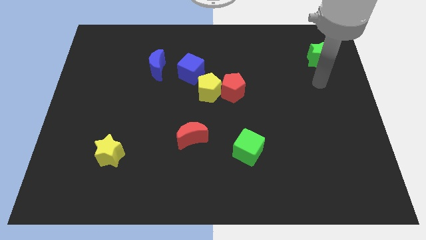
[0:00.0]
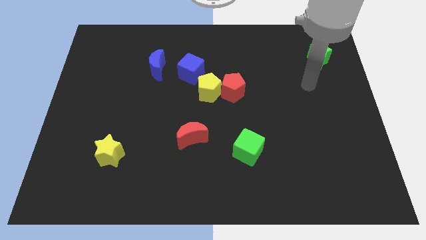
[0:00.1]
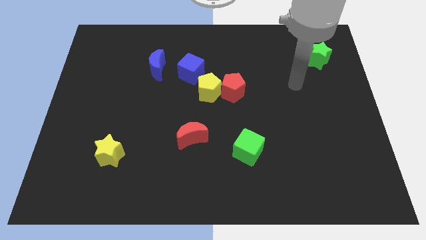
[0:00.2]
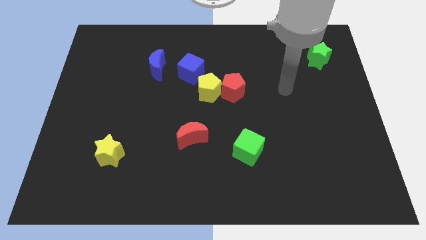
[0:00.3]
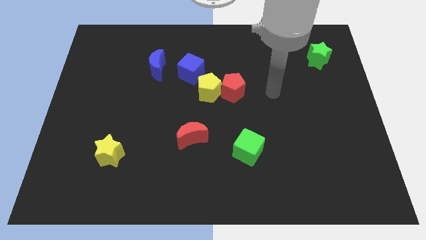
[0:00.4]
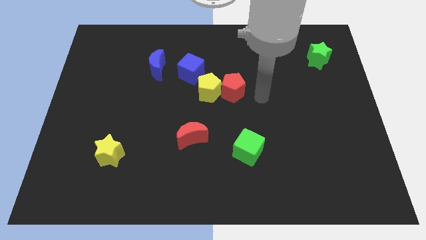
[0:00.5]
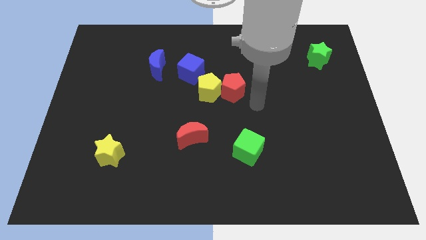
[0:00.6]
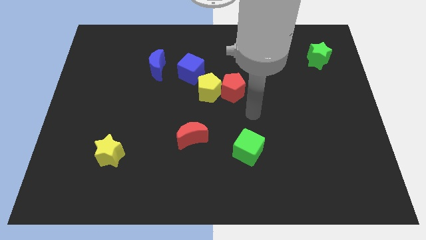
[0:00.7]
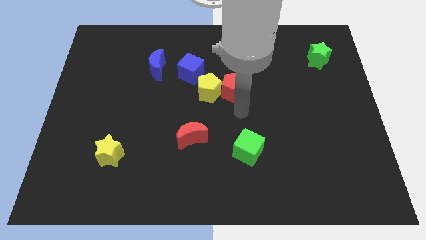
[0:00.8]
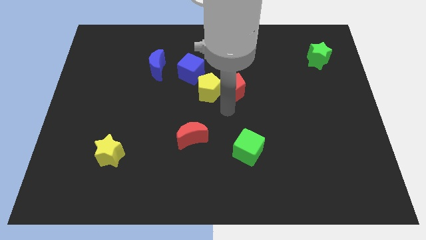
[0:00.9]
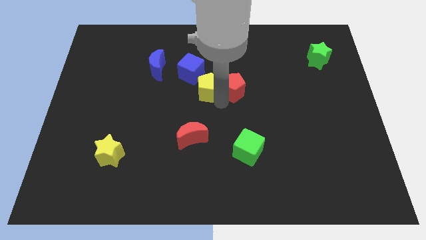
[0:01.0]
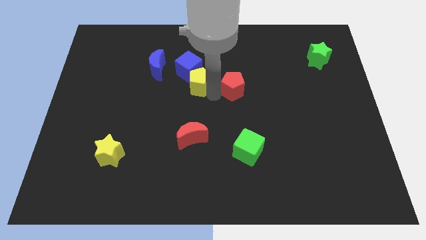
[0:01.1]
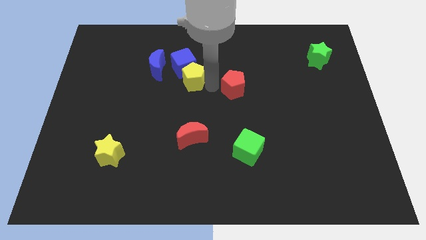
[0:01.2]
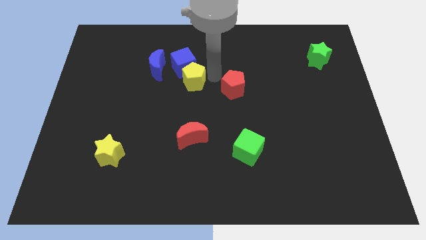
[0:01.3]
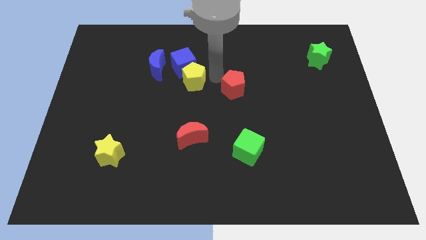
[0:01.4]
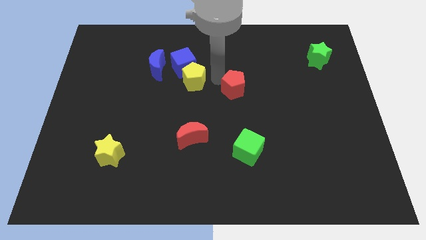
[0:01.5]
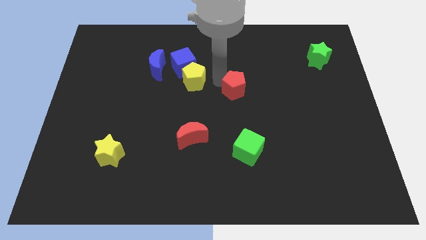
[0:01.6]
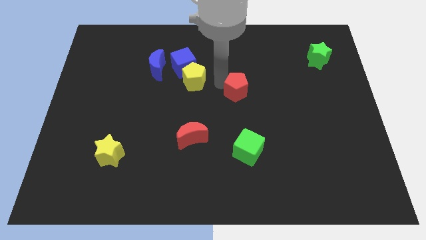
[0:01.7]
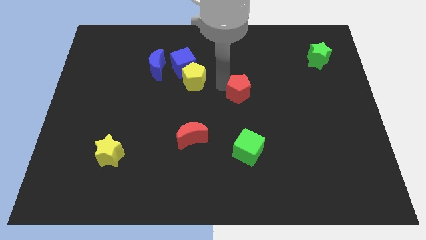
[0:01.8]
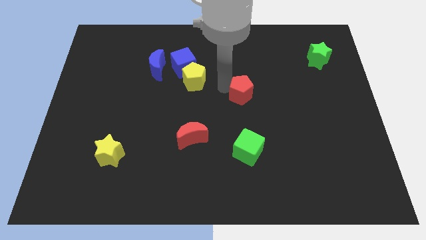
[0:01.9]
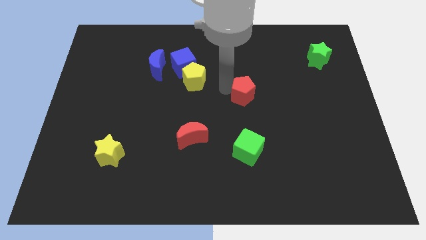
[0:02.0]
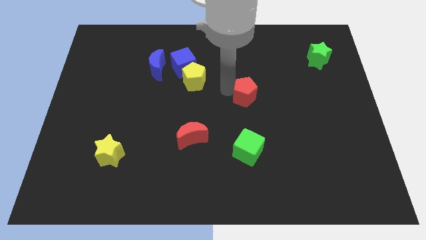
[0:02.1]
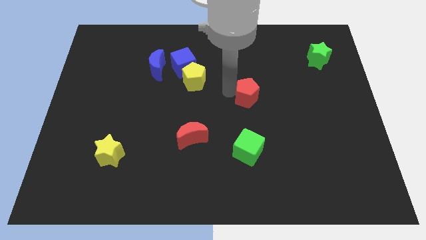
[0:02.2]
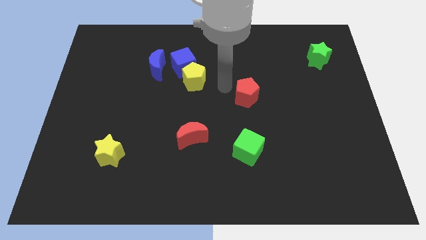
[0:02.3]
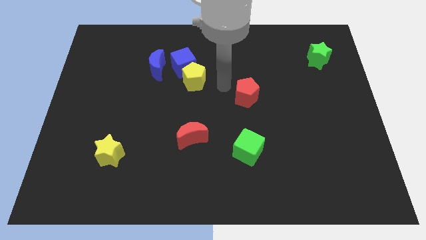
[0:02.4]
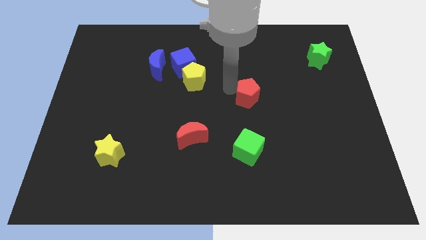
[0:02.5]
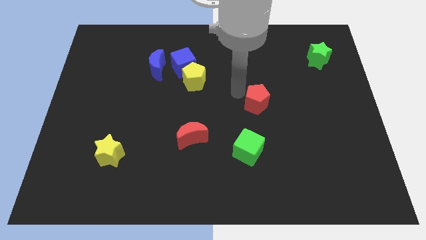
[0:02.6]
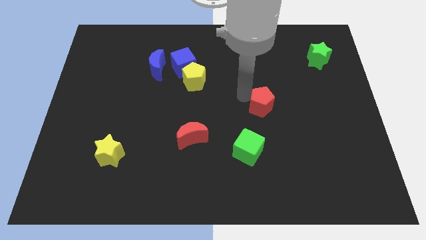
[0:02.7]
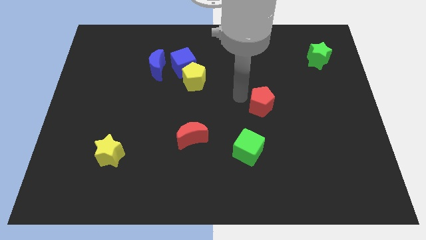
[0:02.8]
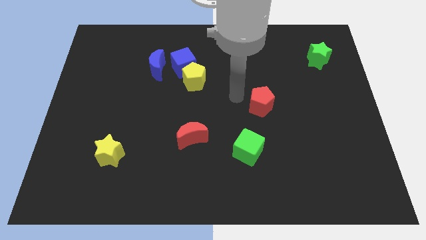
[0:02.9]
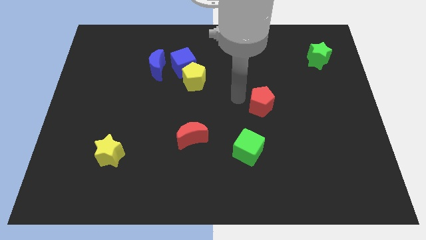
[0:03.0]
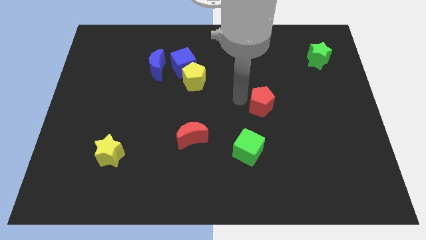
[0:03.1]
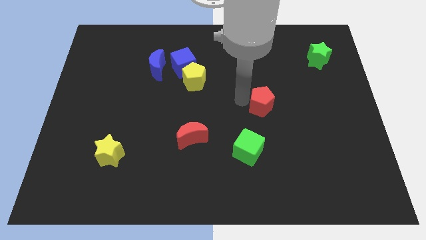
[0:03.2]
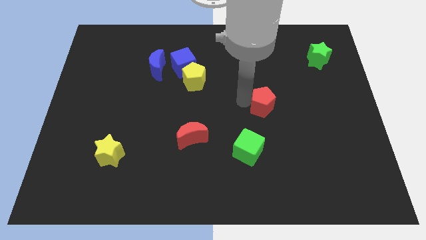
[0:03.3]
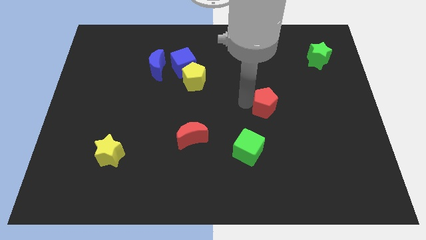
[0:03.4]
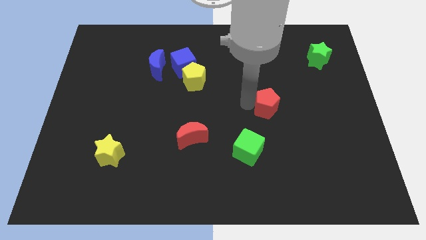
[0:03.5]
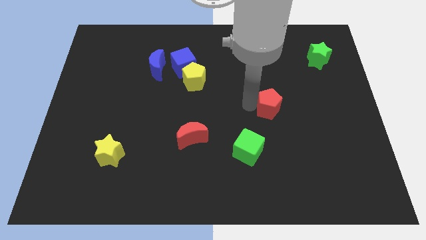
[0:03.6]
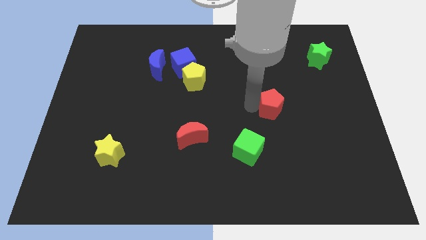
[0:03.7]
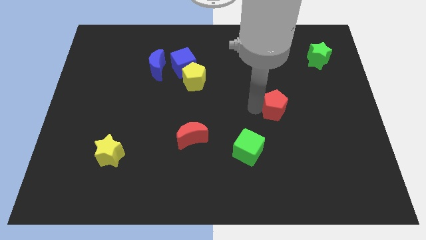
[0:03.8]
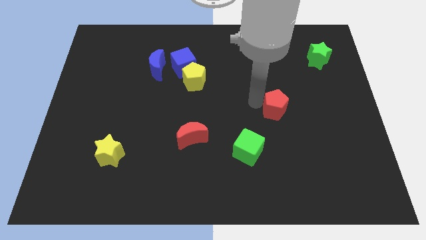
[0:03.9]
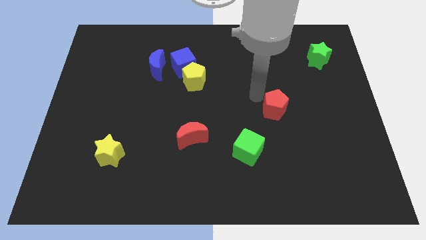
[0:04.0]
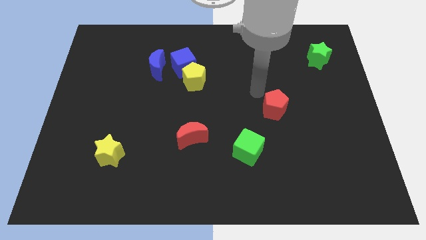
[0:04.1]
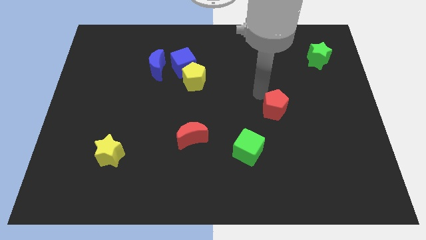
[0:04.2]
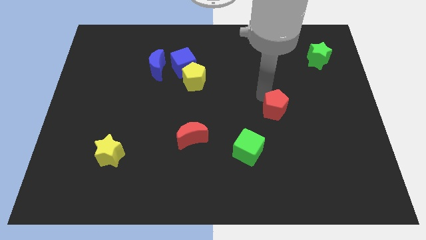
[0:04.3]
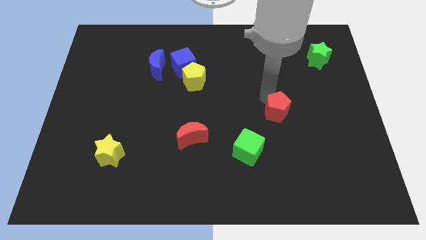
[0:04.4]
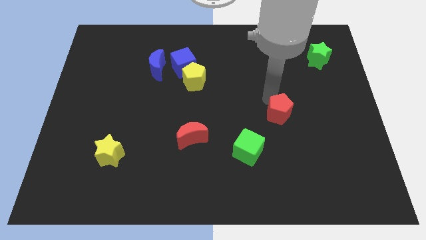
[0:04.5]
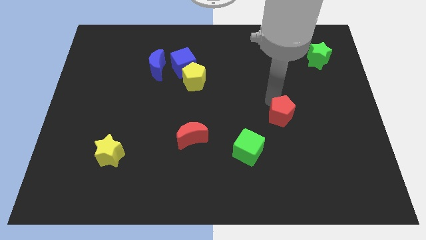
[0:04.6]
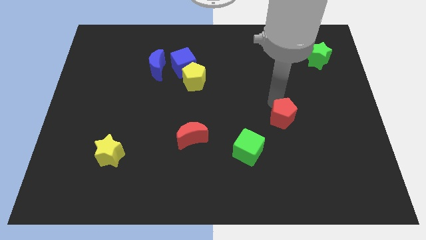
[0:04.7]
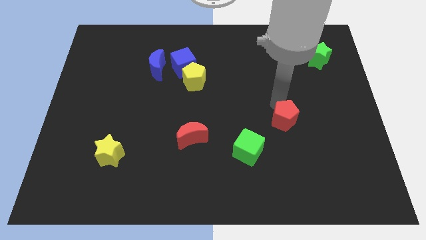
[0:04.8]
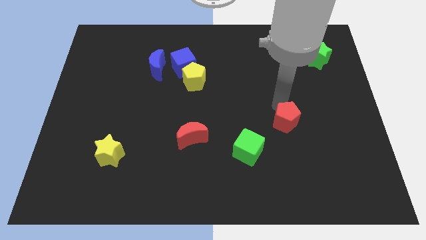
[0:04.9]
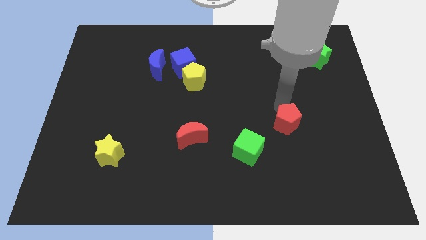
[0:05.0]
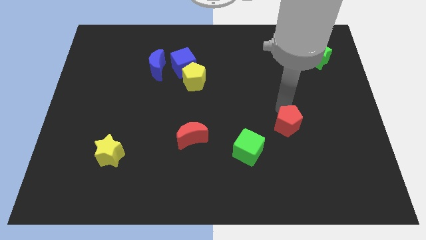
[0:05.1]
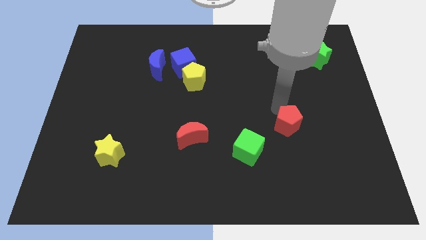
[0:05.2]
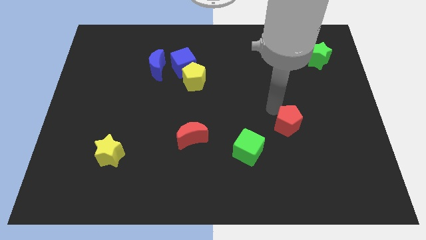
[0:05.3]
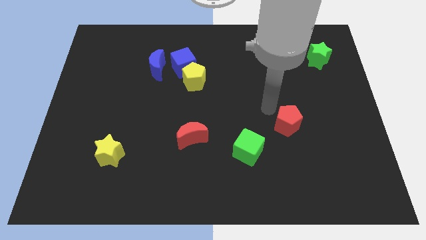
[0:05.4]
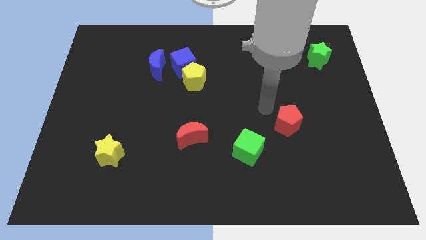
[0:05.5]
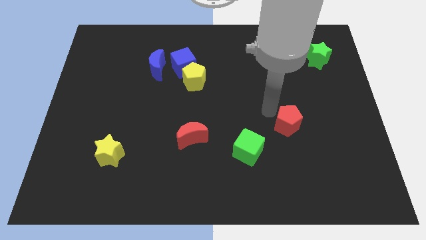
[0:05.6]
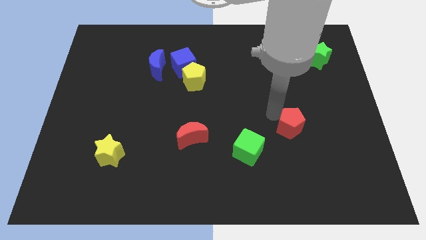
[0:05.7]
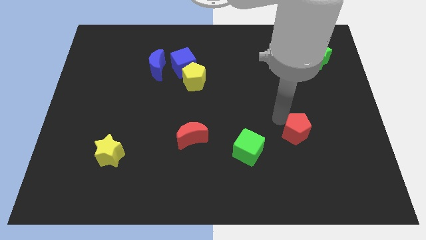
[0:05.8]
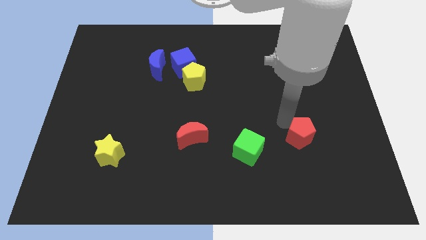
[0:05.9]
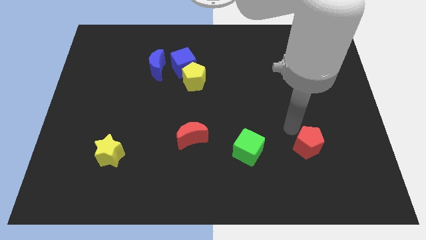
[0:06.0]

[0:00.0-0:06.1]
move the red pentagon diagonally downwards and right

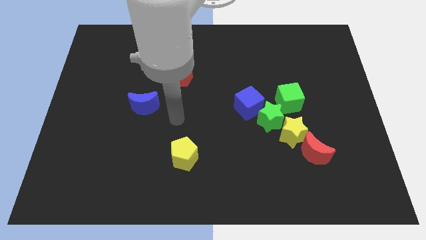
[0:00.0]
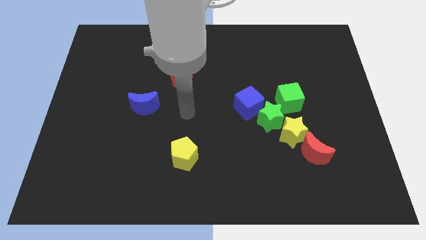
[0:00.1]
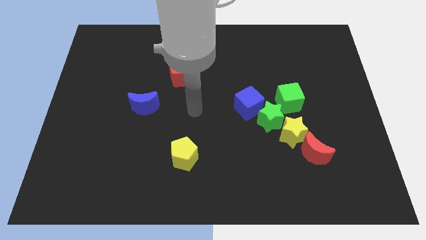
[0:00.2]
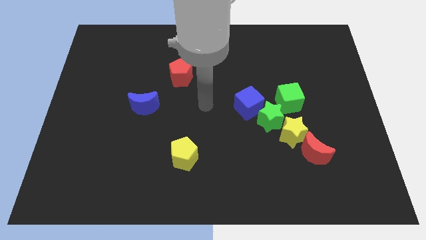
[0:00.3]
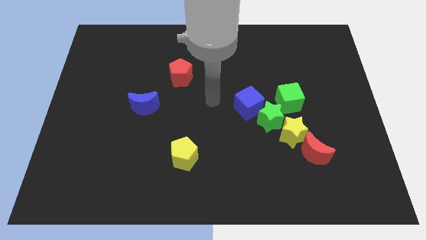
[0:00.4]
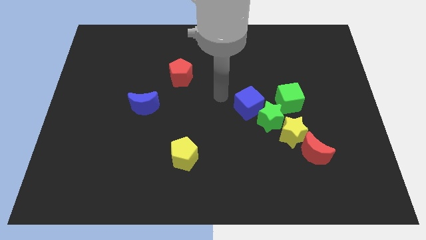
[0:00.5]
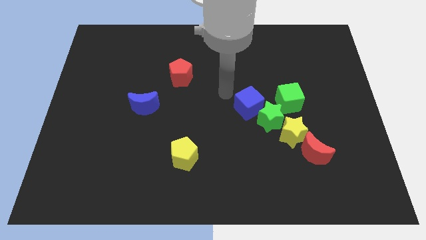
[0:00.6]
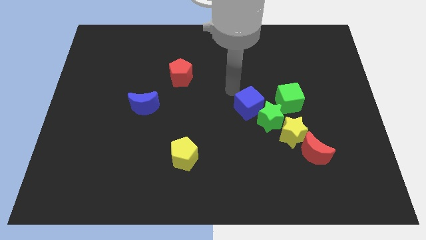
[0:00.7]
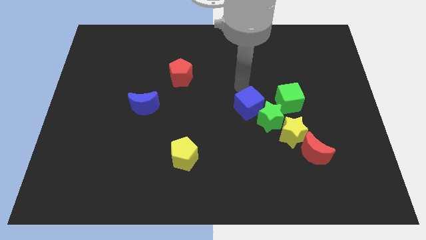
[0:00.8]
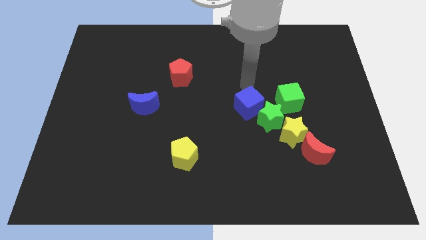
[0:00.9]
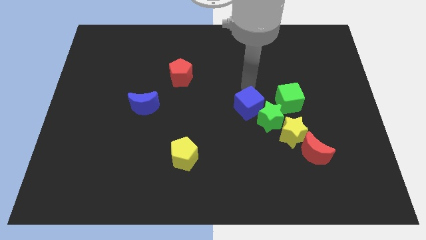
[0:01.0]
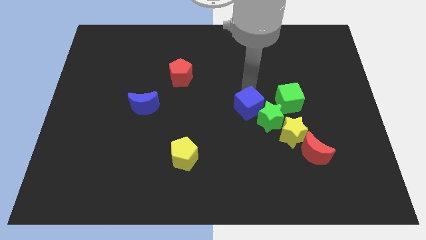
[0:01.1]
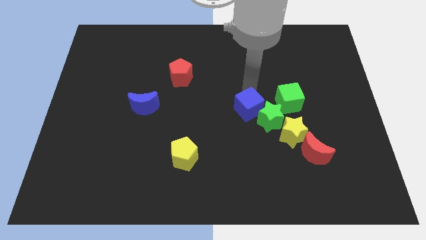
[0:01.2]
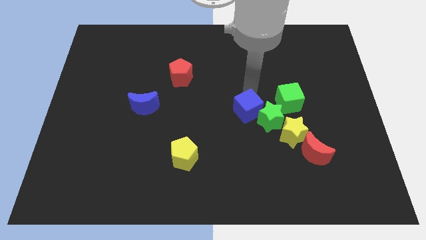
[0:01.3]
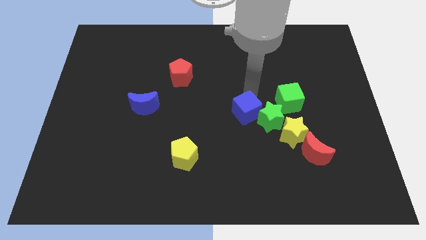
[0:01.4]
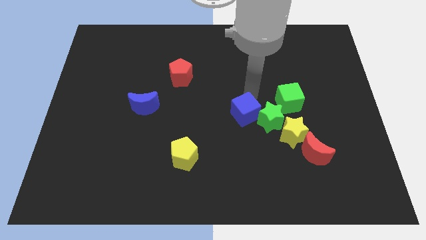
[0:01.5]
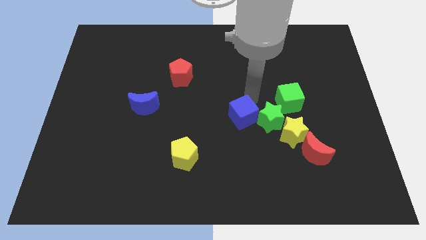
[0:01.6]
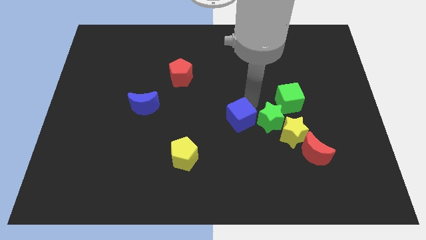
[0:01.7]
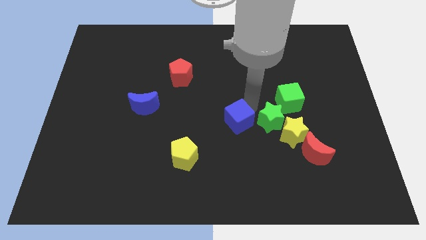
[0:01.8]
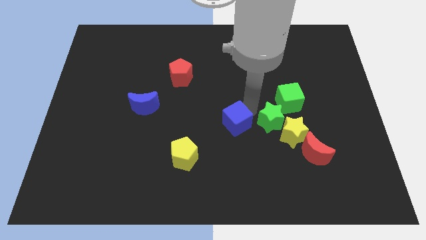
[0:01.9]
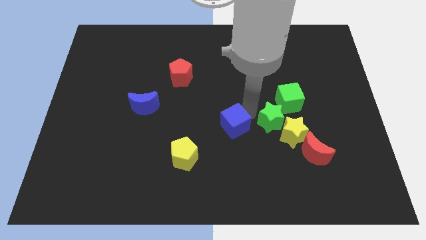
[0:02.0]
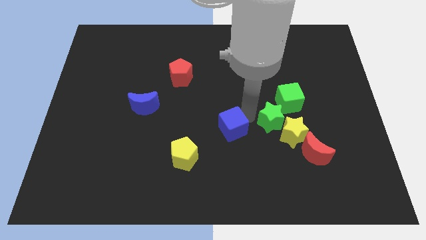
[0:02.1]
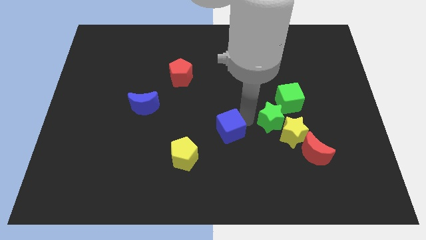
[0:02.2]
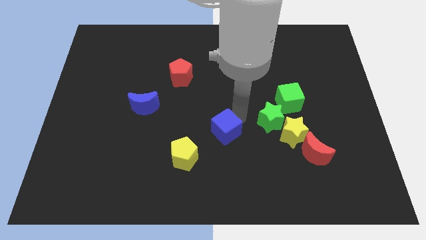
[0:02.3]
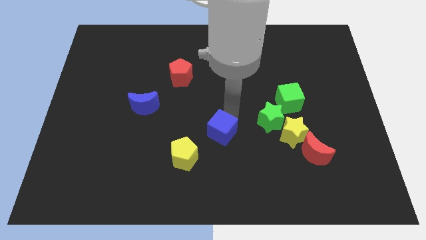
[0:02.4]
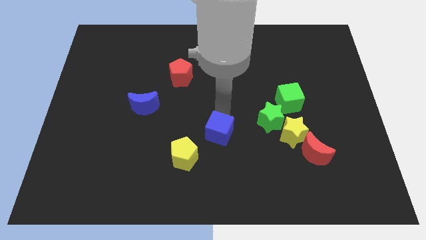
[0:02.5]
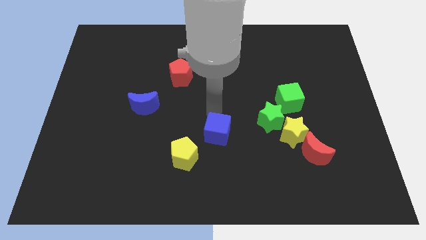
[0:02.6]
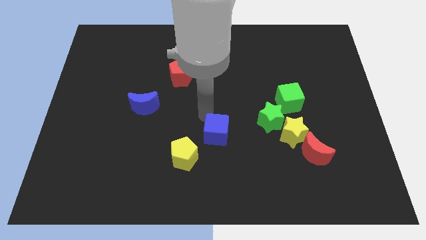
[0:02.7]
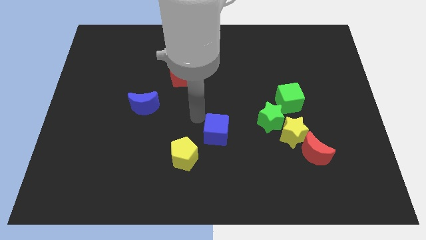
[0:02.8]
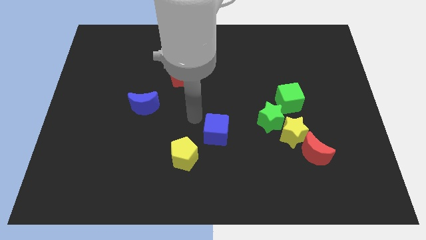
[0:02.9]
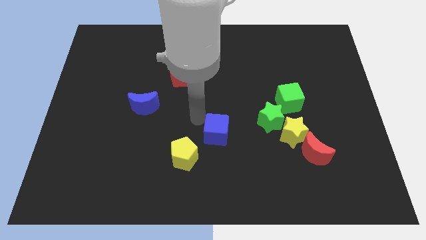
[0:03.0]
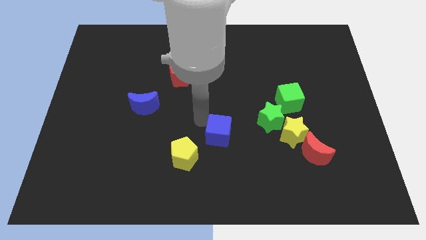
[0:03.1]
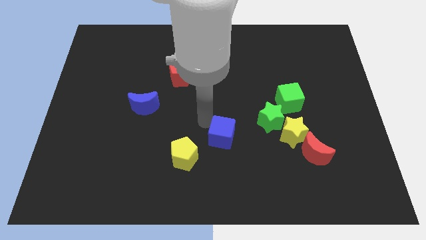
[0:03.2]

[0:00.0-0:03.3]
slightly push the blue cube downwards
